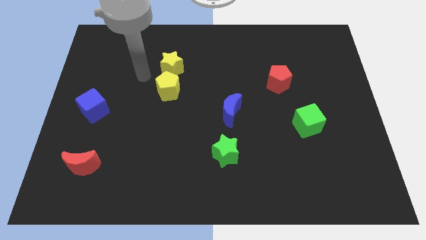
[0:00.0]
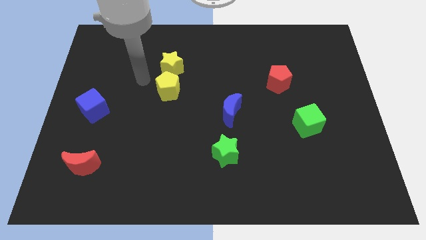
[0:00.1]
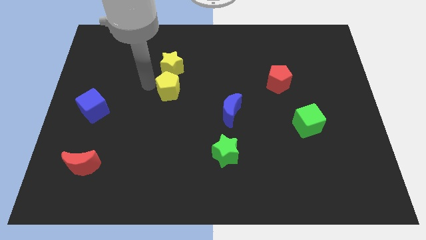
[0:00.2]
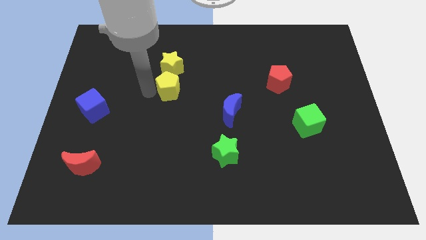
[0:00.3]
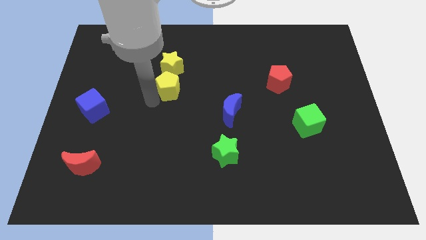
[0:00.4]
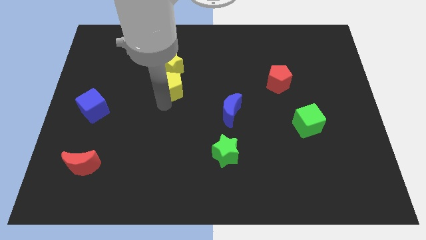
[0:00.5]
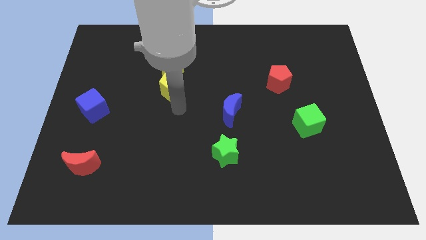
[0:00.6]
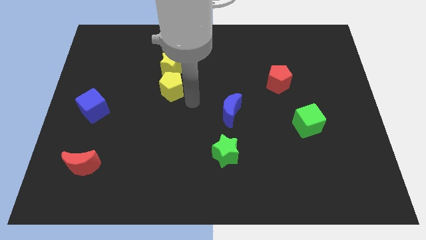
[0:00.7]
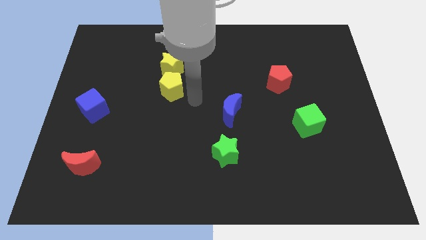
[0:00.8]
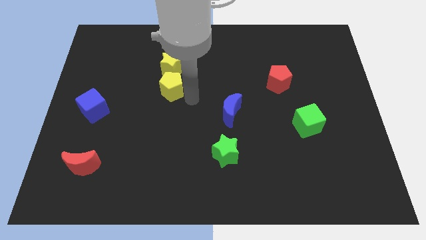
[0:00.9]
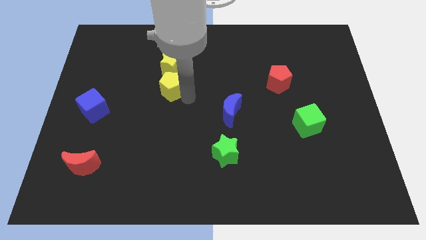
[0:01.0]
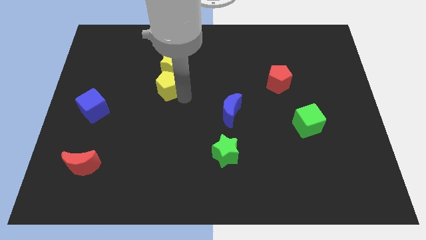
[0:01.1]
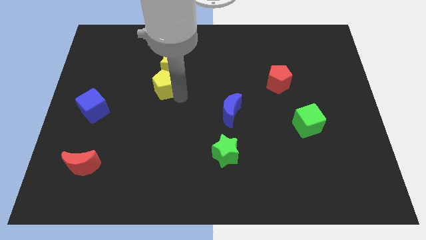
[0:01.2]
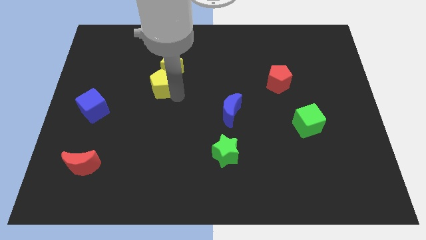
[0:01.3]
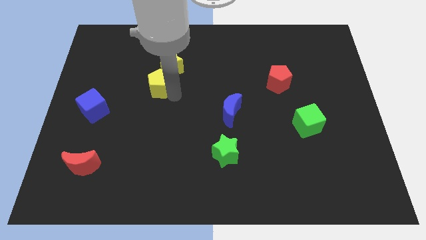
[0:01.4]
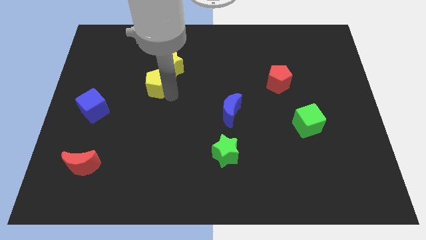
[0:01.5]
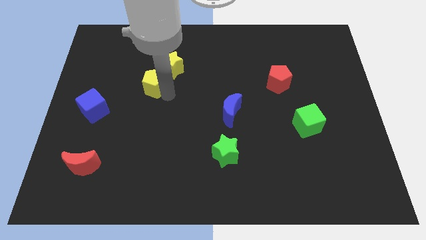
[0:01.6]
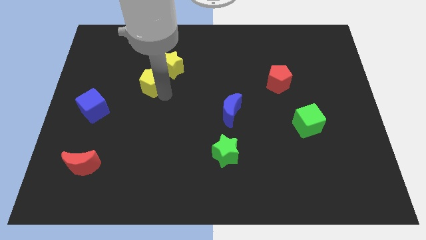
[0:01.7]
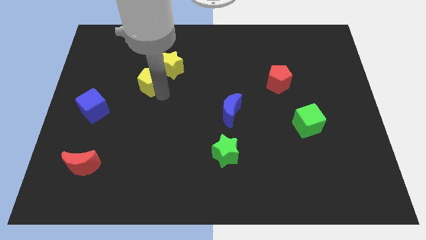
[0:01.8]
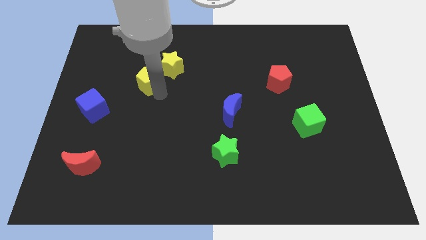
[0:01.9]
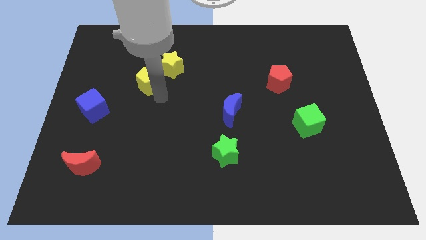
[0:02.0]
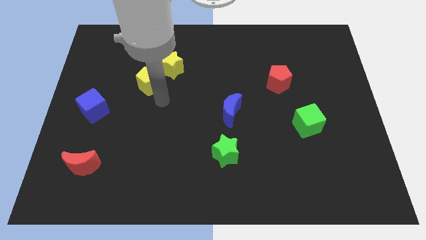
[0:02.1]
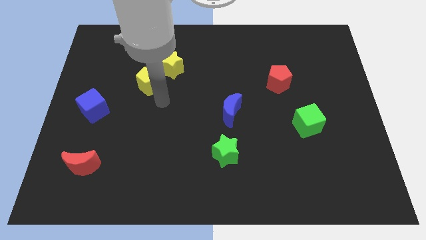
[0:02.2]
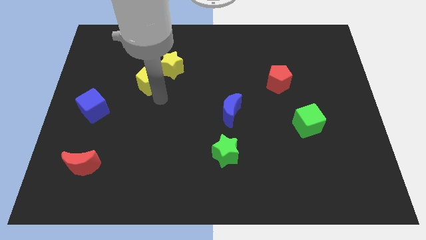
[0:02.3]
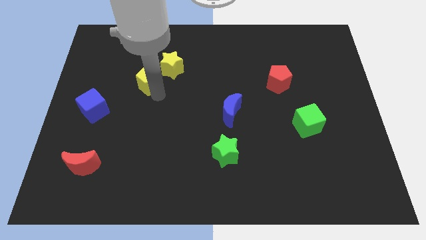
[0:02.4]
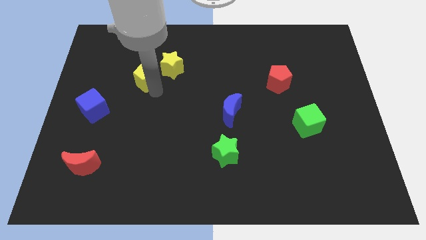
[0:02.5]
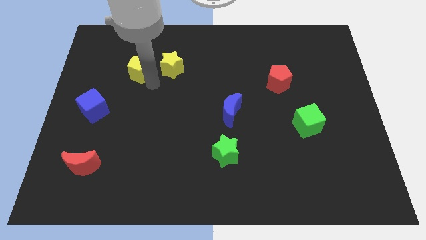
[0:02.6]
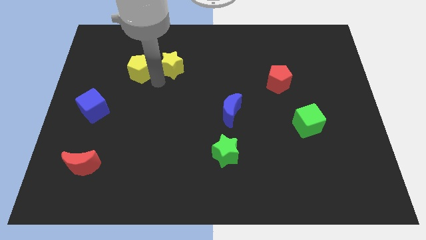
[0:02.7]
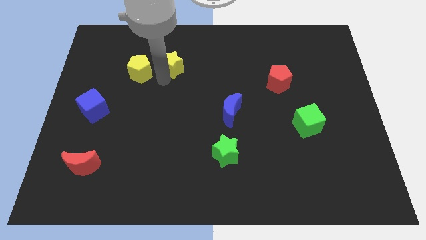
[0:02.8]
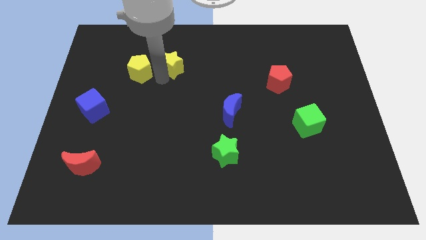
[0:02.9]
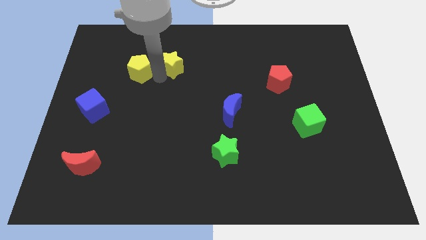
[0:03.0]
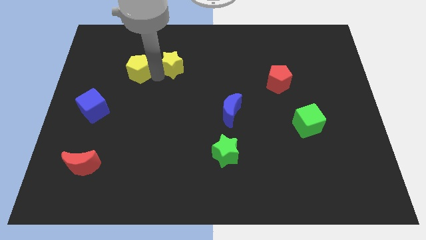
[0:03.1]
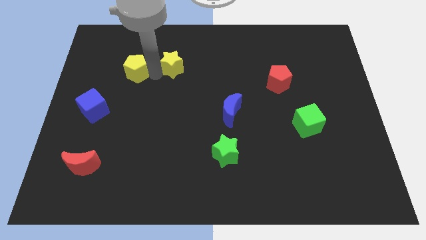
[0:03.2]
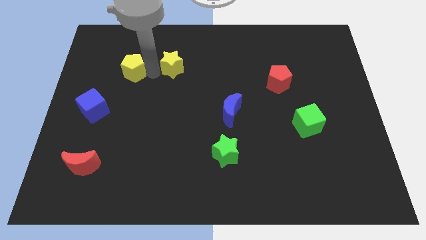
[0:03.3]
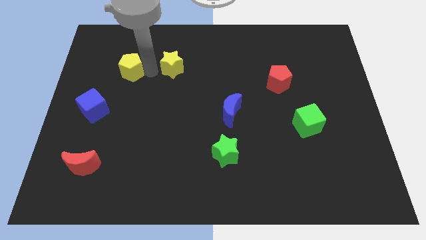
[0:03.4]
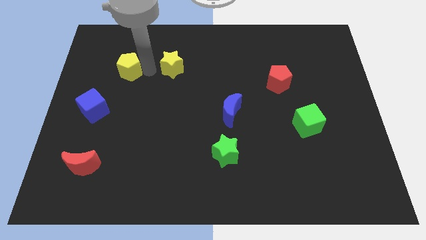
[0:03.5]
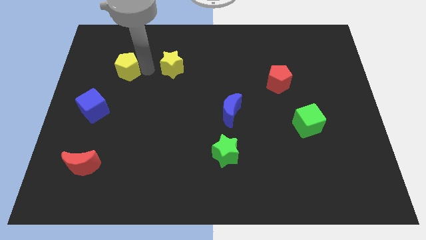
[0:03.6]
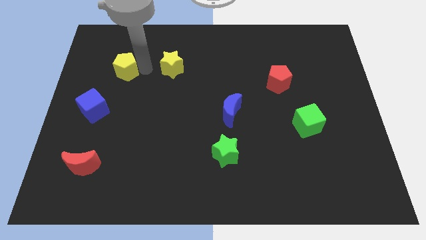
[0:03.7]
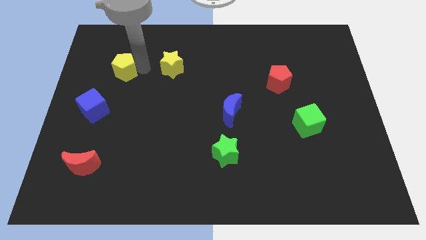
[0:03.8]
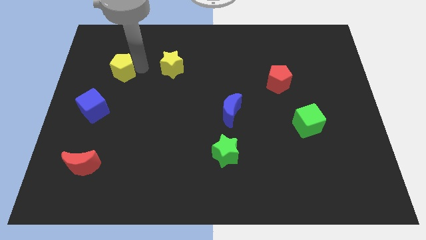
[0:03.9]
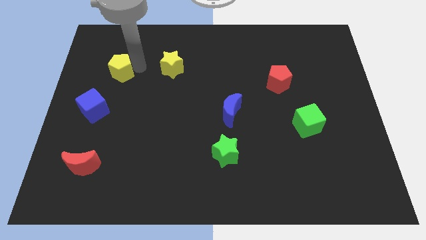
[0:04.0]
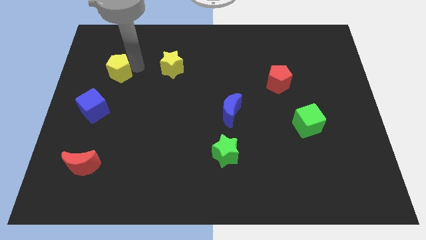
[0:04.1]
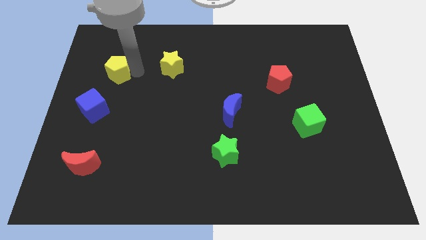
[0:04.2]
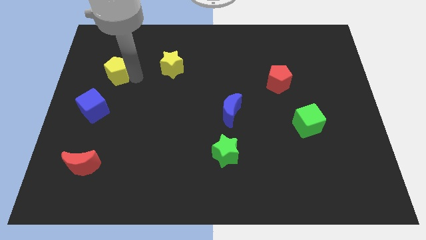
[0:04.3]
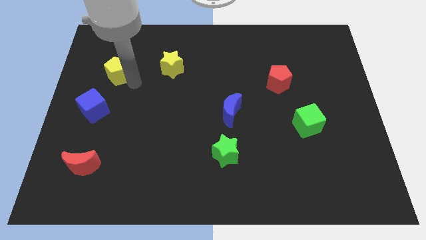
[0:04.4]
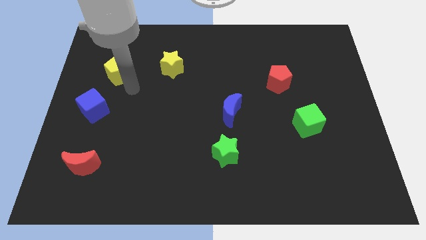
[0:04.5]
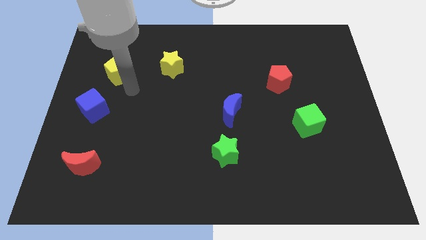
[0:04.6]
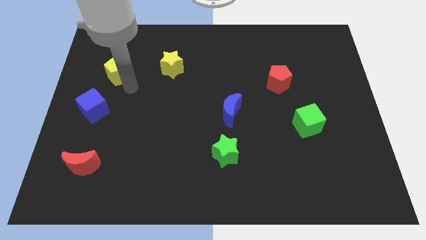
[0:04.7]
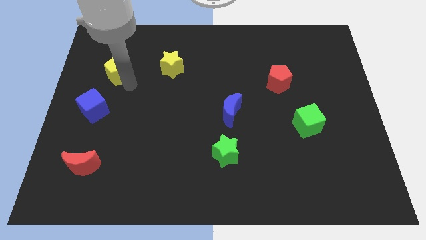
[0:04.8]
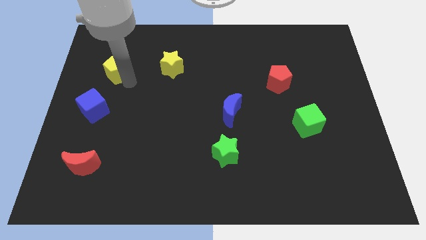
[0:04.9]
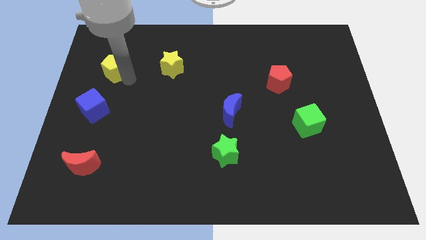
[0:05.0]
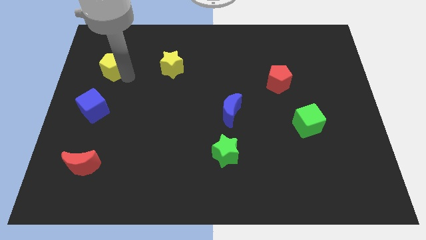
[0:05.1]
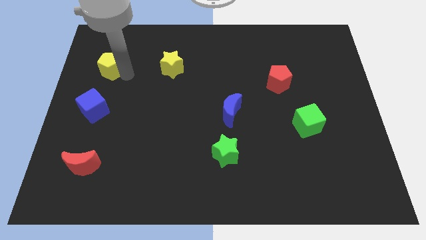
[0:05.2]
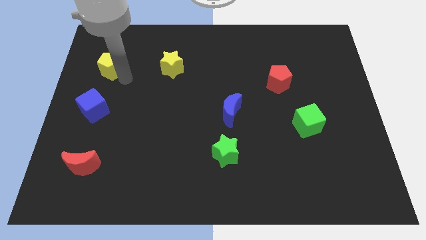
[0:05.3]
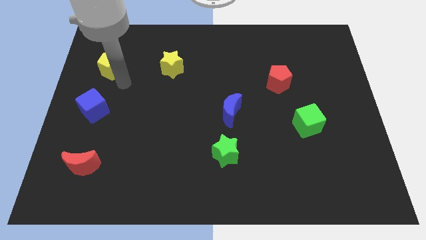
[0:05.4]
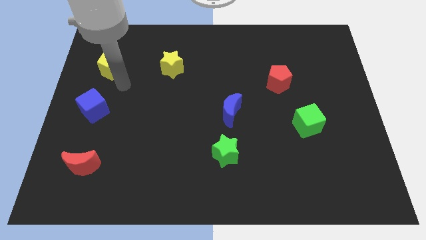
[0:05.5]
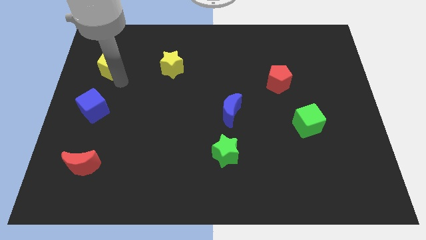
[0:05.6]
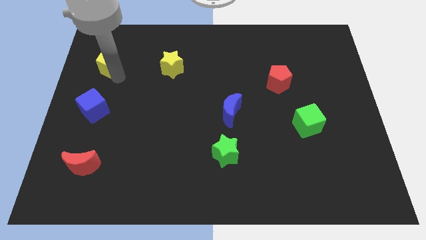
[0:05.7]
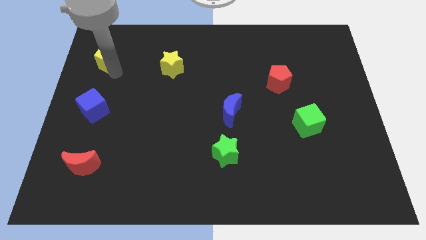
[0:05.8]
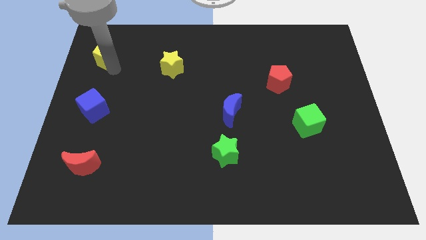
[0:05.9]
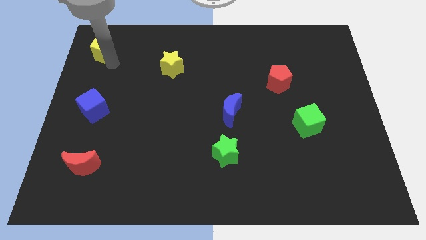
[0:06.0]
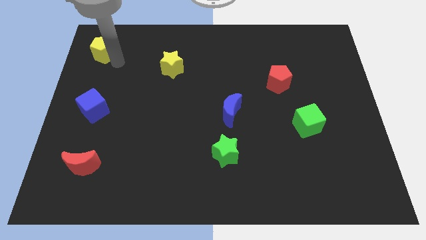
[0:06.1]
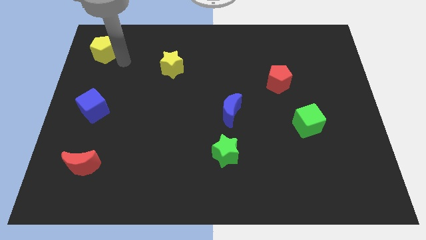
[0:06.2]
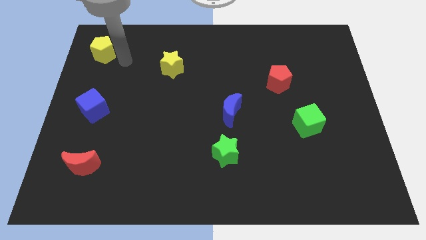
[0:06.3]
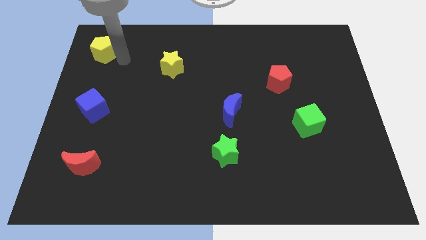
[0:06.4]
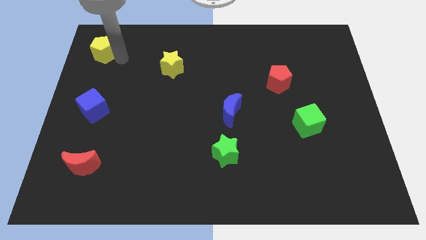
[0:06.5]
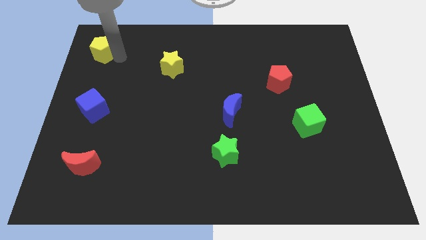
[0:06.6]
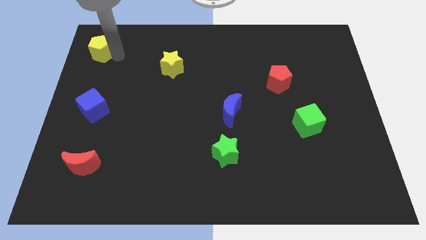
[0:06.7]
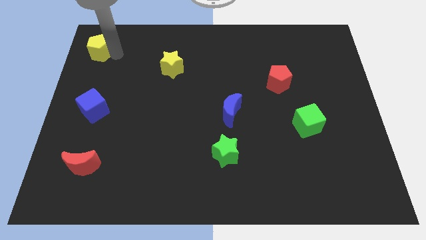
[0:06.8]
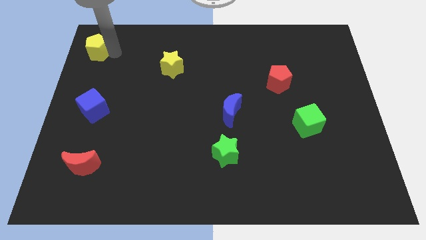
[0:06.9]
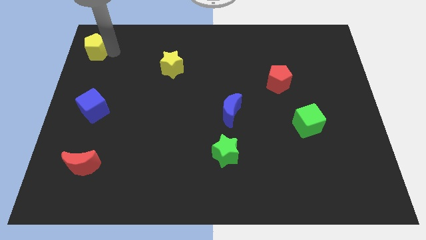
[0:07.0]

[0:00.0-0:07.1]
slide the yellow pentagon to the top left

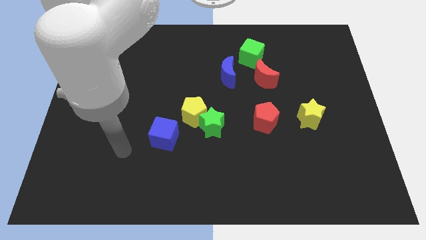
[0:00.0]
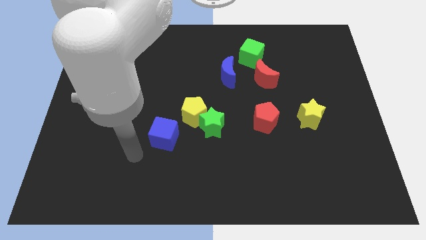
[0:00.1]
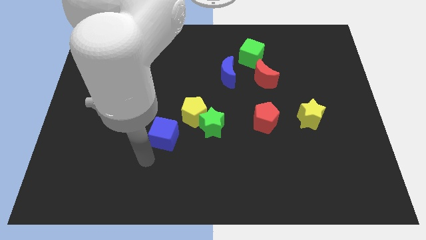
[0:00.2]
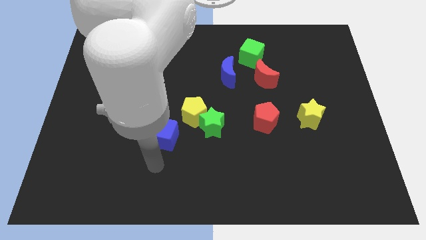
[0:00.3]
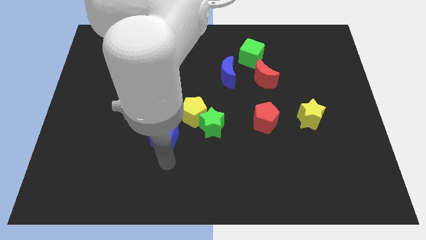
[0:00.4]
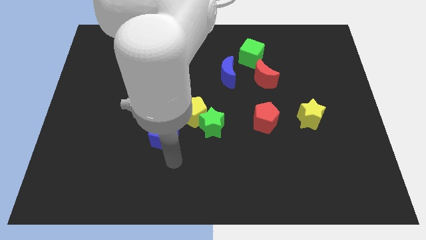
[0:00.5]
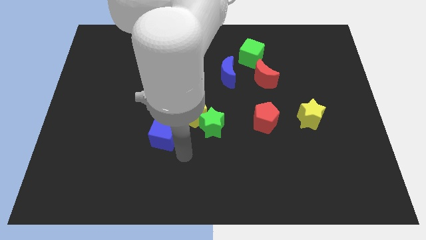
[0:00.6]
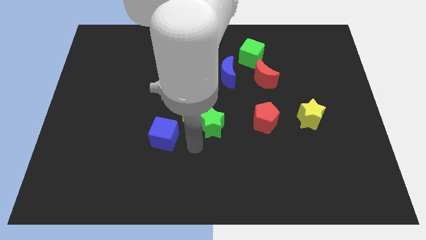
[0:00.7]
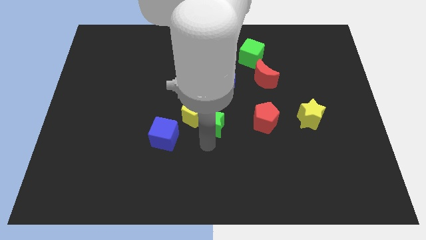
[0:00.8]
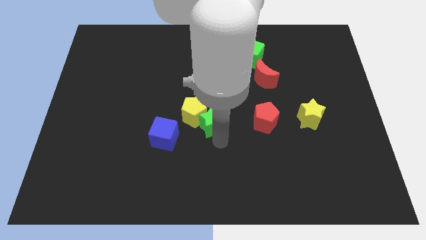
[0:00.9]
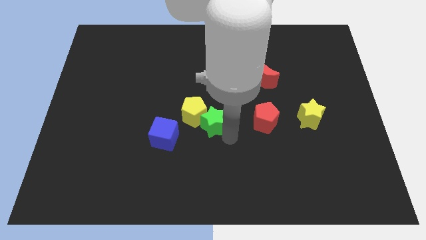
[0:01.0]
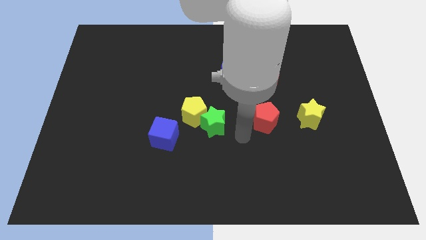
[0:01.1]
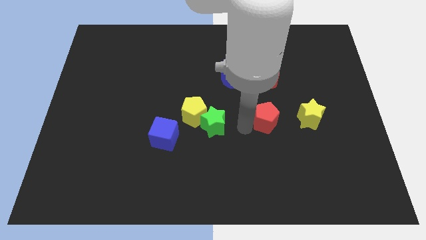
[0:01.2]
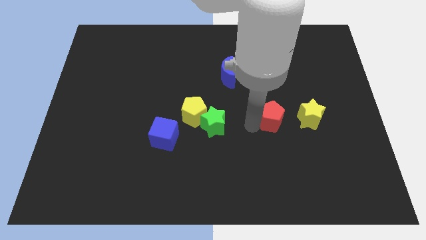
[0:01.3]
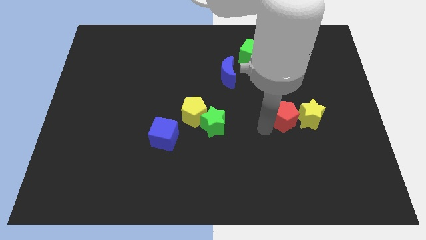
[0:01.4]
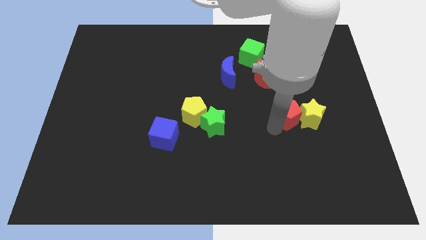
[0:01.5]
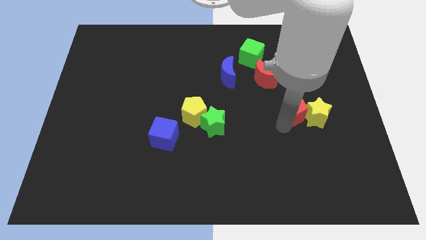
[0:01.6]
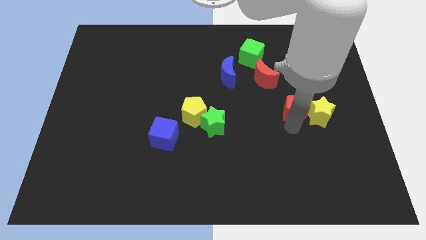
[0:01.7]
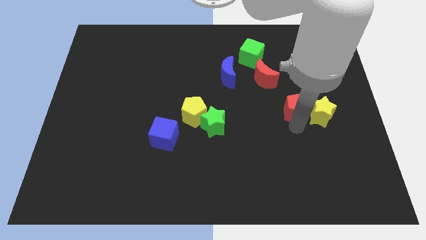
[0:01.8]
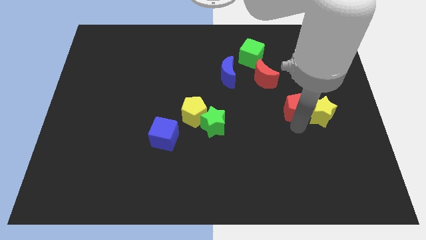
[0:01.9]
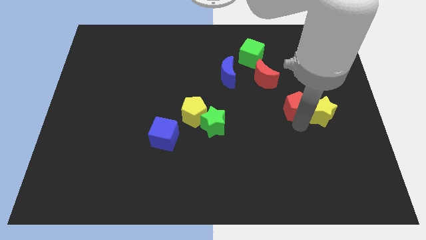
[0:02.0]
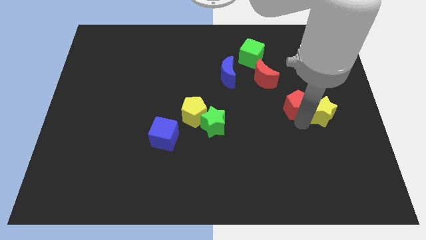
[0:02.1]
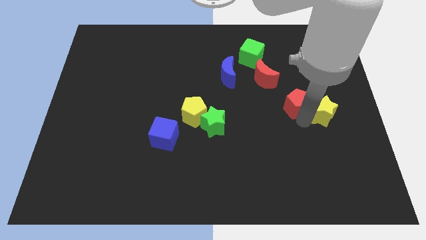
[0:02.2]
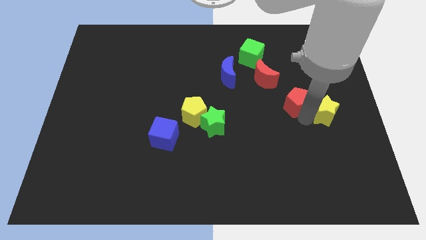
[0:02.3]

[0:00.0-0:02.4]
put the yellow star to the right side of the board
